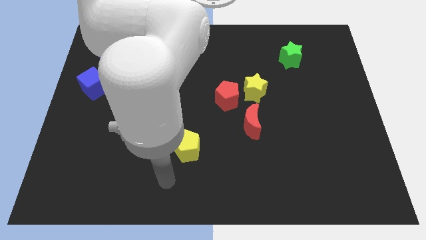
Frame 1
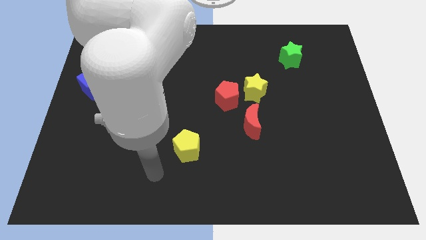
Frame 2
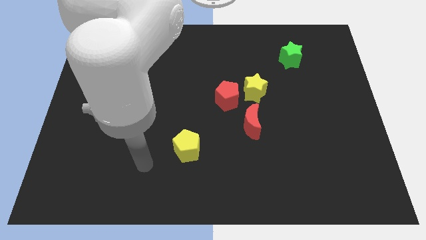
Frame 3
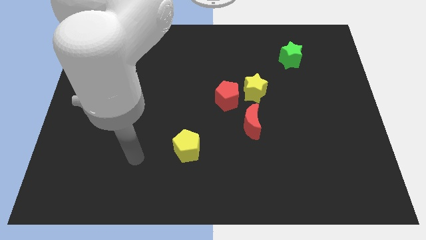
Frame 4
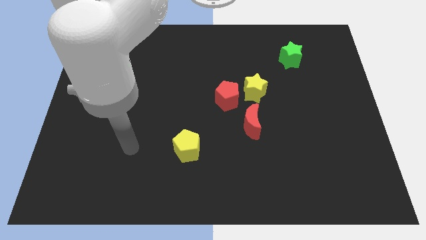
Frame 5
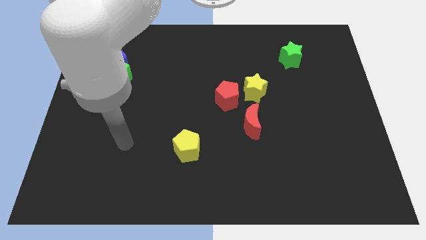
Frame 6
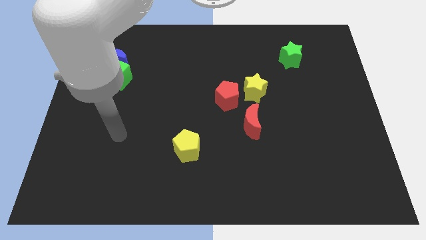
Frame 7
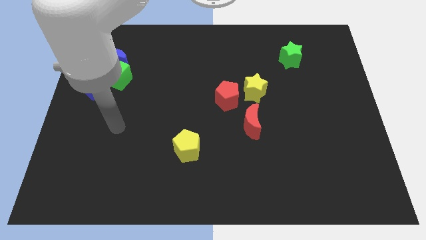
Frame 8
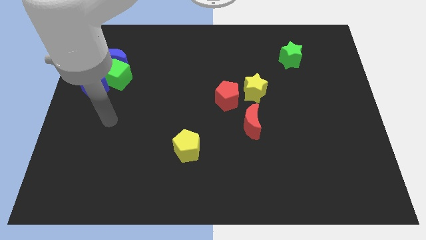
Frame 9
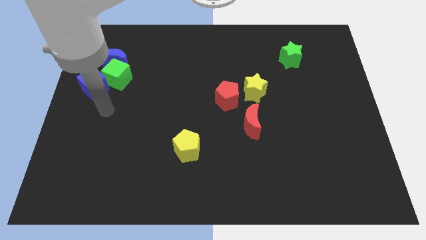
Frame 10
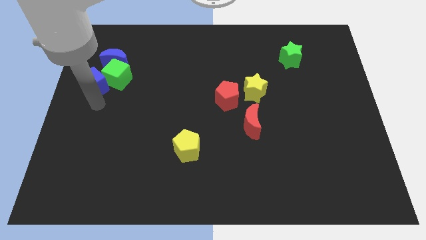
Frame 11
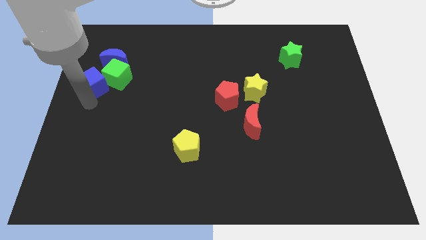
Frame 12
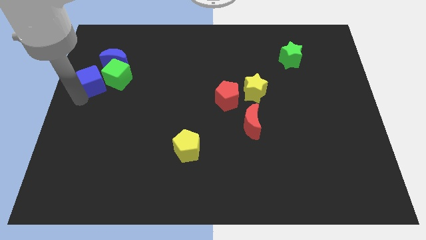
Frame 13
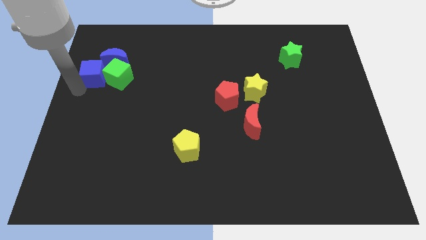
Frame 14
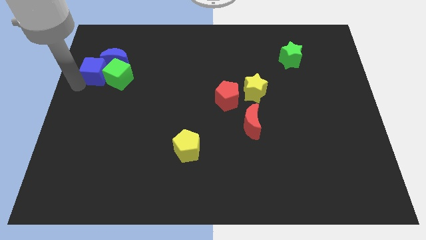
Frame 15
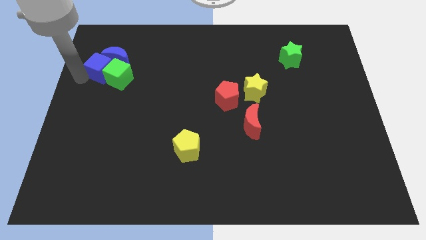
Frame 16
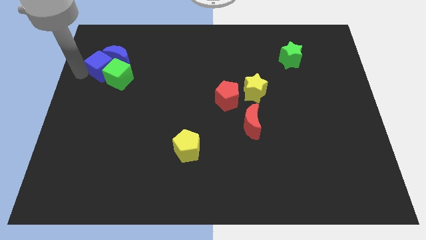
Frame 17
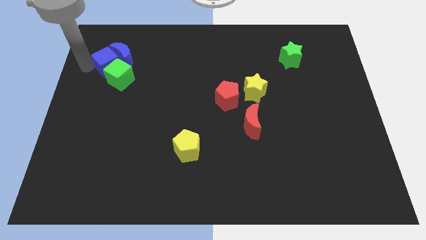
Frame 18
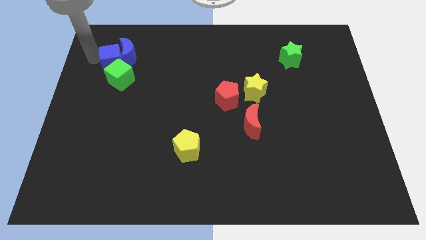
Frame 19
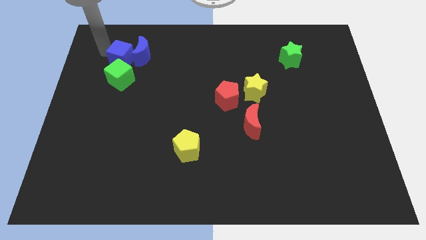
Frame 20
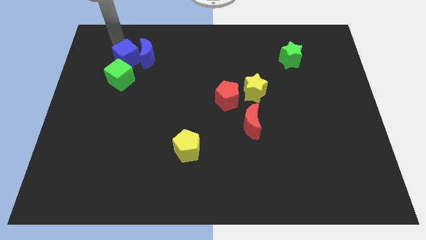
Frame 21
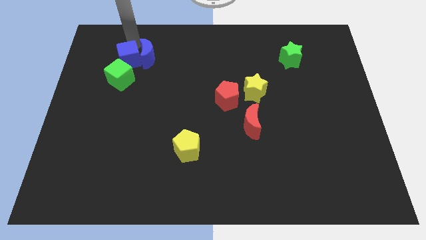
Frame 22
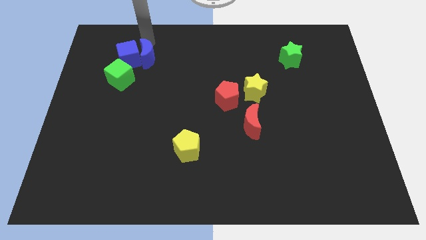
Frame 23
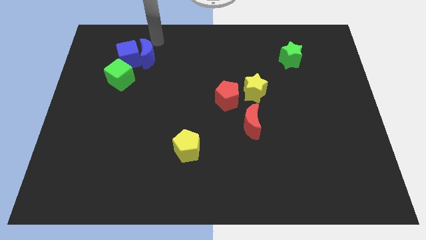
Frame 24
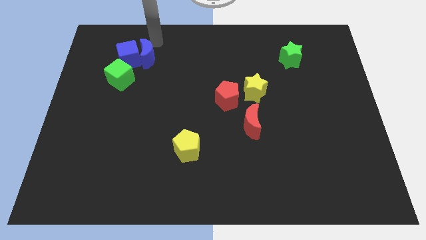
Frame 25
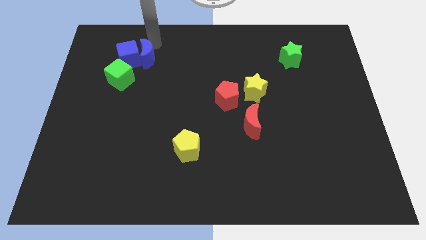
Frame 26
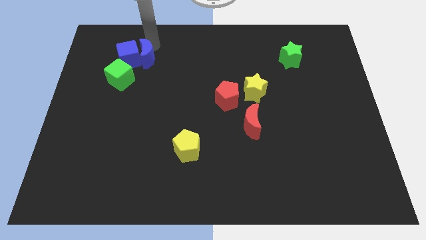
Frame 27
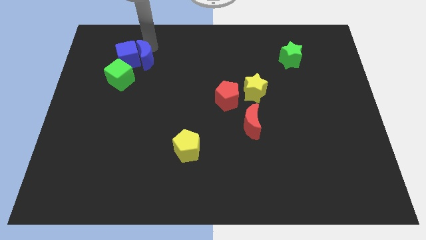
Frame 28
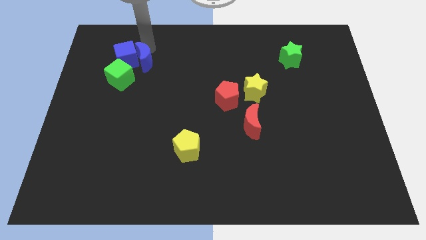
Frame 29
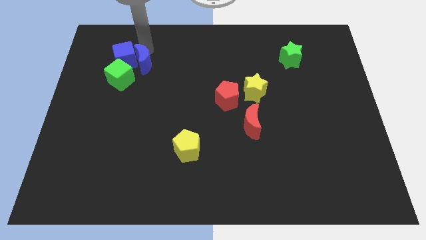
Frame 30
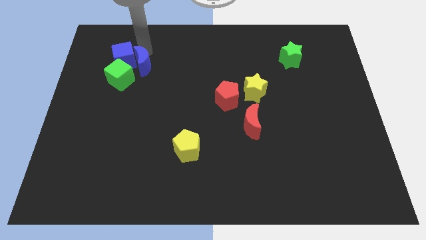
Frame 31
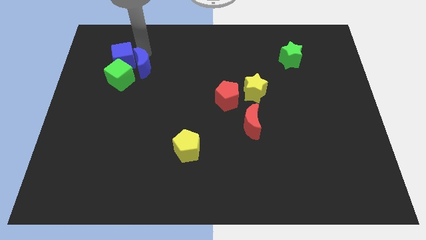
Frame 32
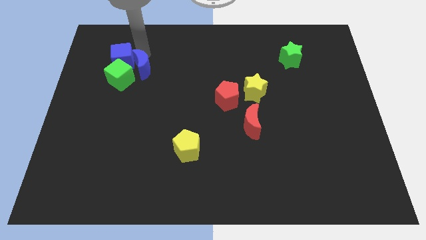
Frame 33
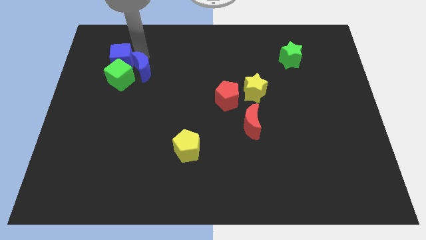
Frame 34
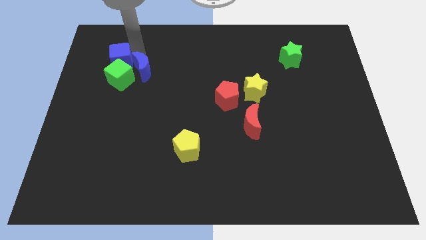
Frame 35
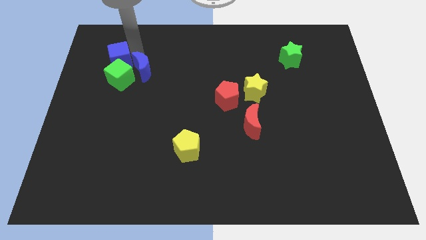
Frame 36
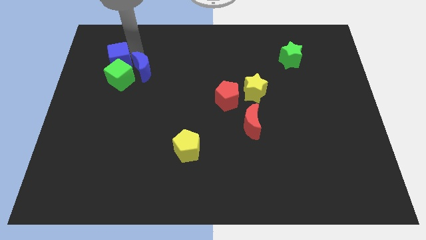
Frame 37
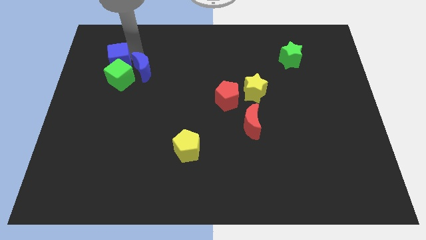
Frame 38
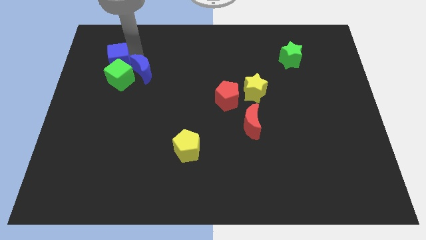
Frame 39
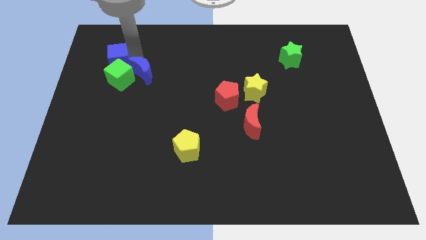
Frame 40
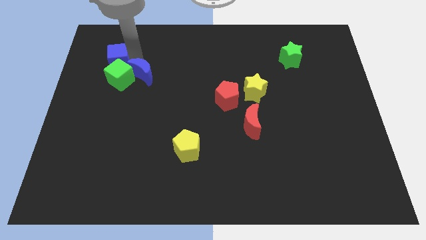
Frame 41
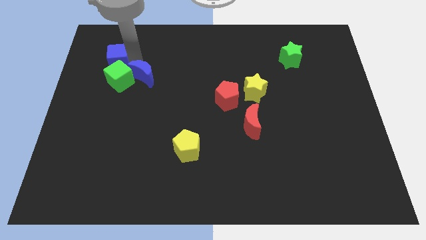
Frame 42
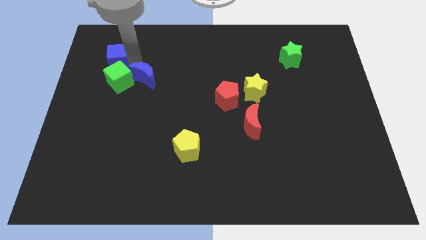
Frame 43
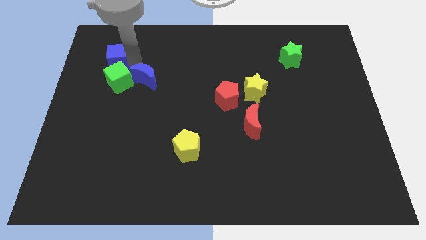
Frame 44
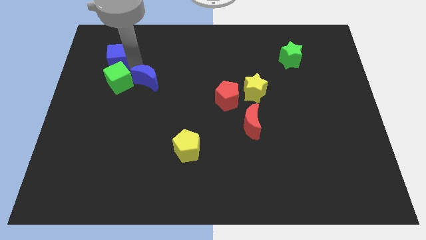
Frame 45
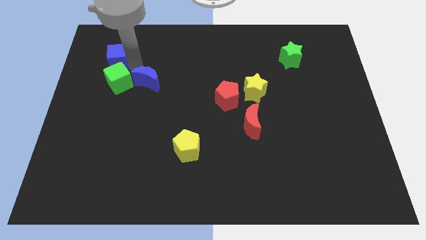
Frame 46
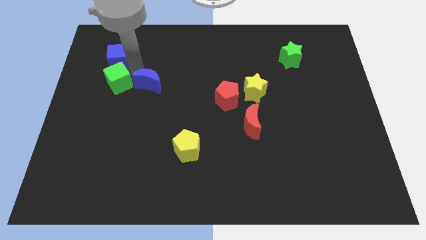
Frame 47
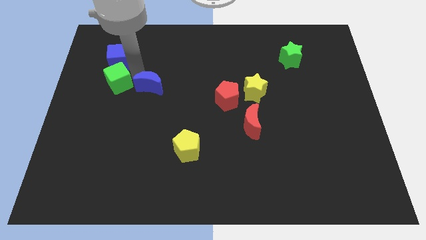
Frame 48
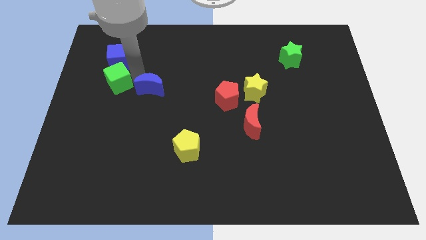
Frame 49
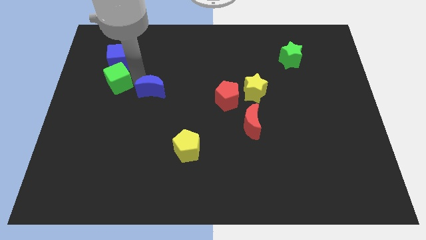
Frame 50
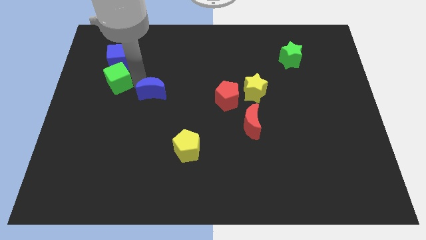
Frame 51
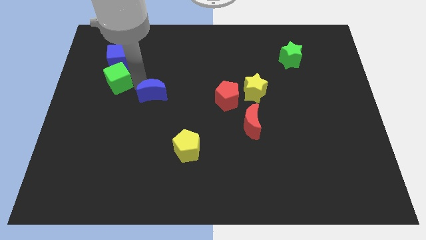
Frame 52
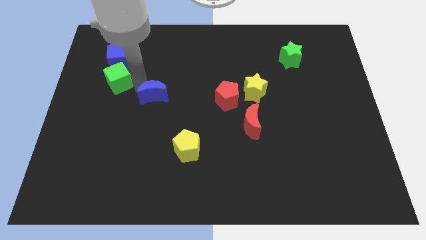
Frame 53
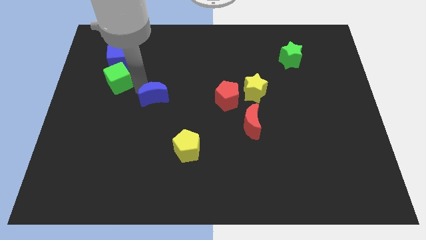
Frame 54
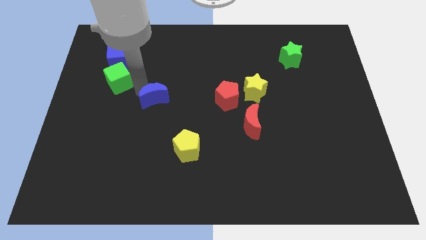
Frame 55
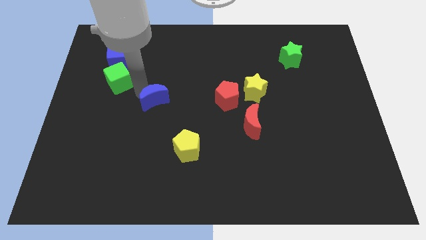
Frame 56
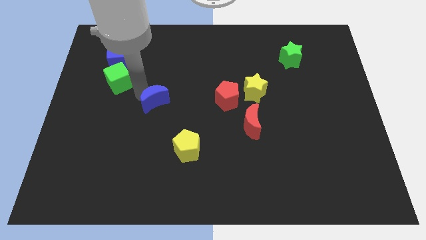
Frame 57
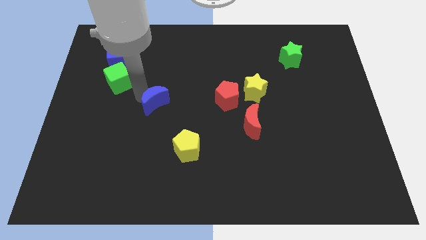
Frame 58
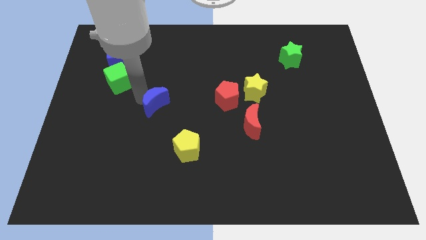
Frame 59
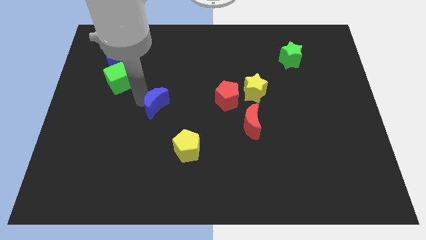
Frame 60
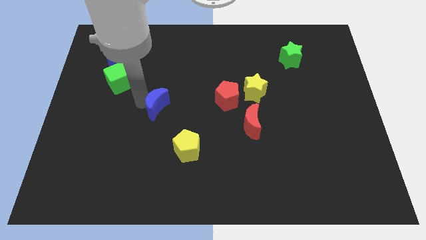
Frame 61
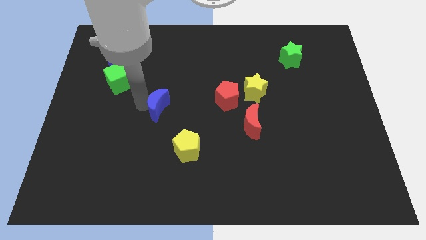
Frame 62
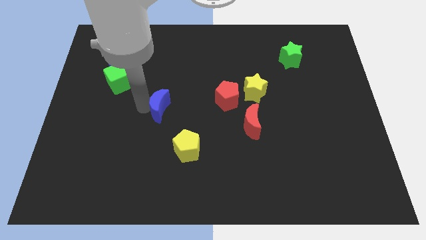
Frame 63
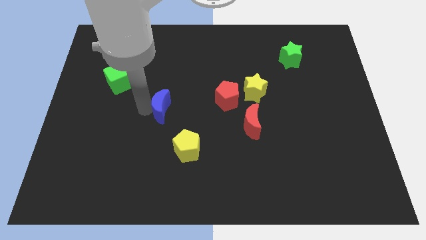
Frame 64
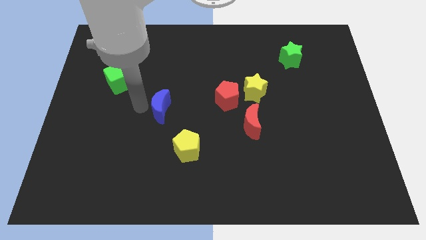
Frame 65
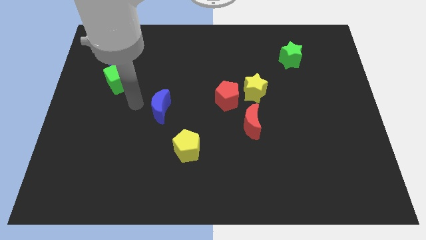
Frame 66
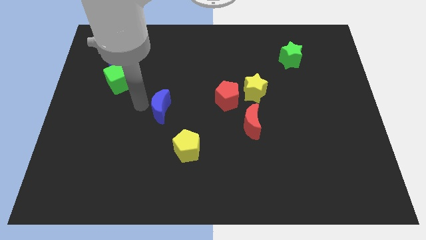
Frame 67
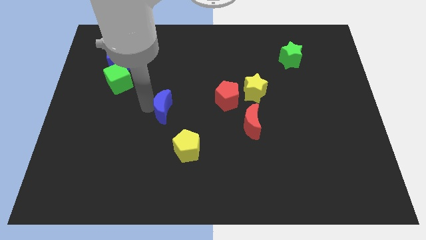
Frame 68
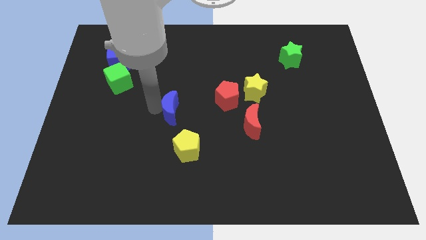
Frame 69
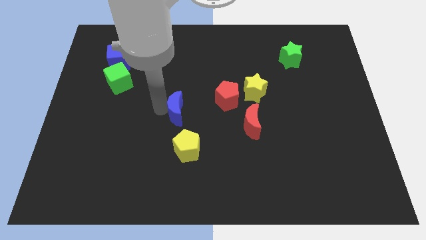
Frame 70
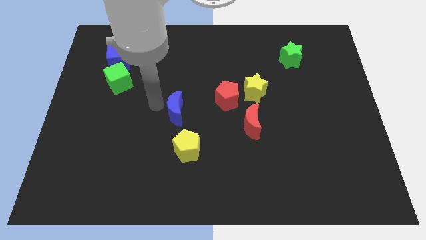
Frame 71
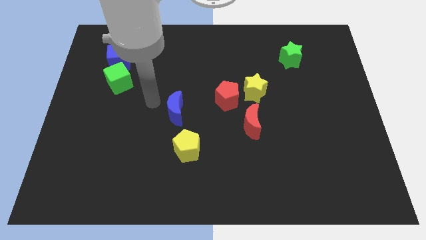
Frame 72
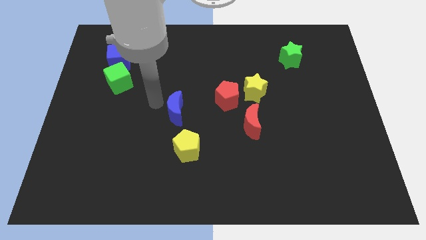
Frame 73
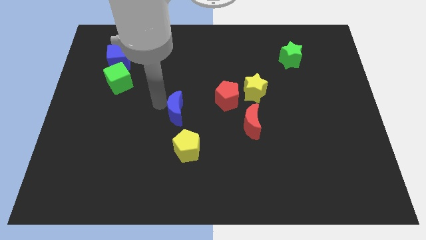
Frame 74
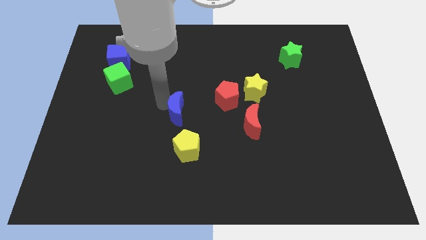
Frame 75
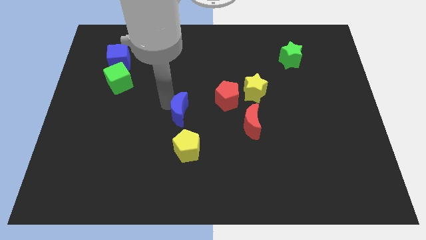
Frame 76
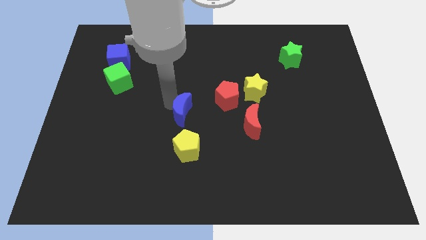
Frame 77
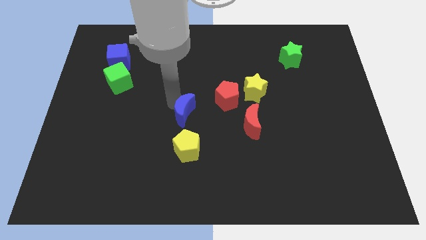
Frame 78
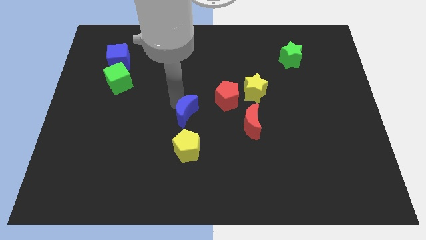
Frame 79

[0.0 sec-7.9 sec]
push the blue moon to the left side of the red moon
